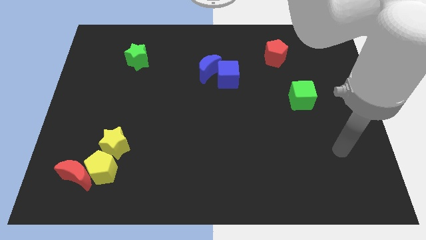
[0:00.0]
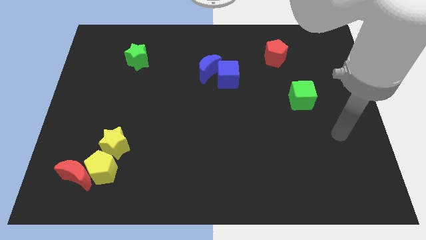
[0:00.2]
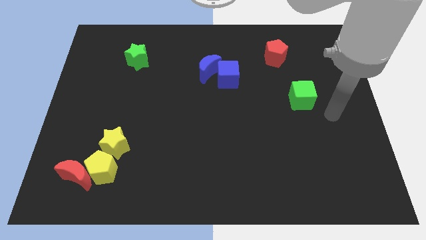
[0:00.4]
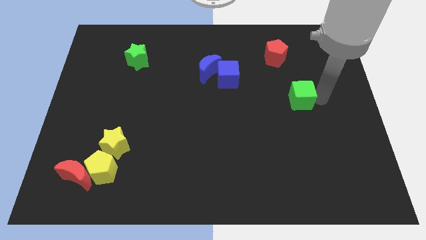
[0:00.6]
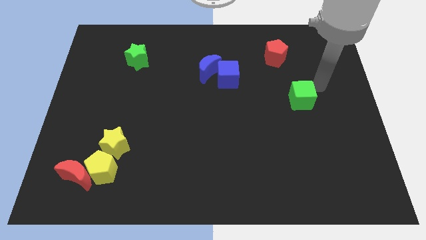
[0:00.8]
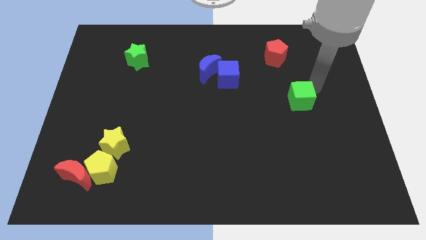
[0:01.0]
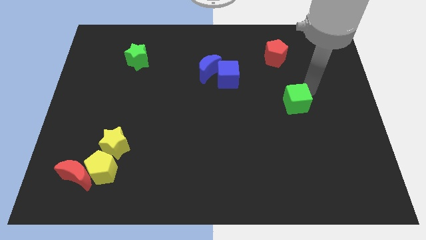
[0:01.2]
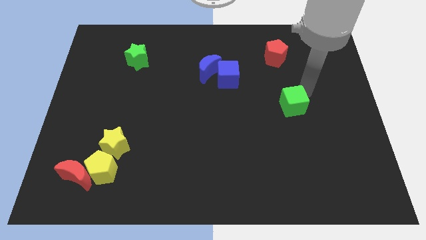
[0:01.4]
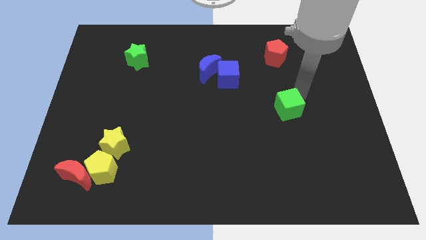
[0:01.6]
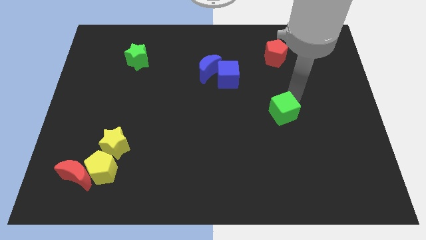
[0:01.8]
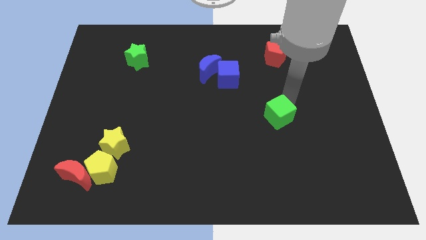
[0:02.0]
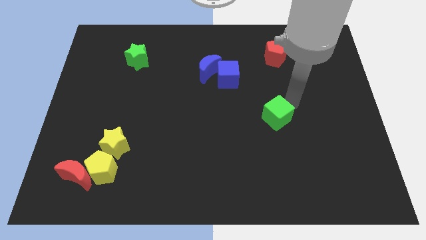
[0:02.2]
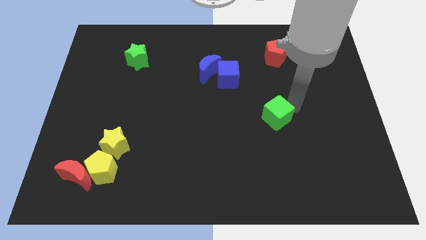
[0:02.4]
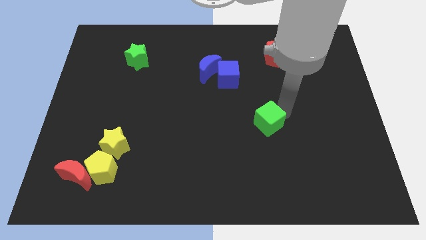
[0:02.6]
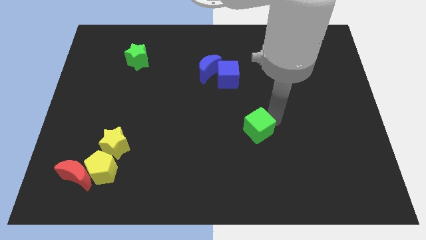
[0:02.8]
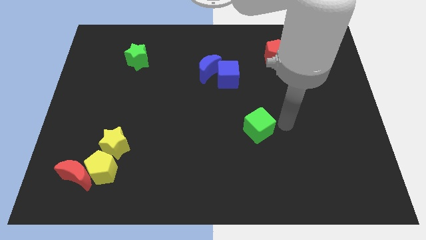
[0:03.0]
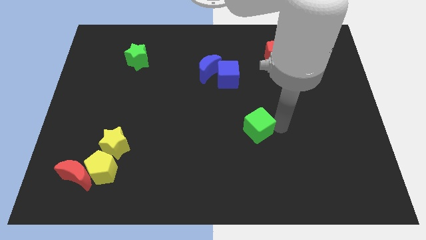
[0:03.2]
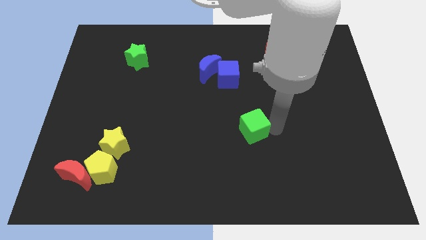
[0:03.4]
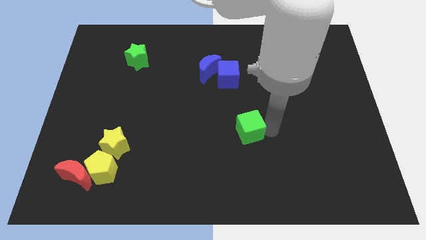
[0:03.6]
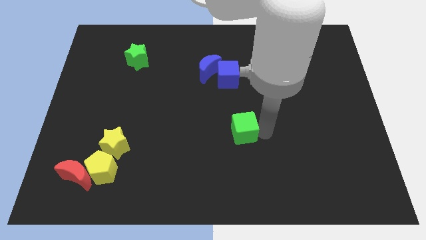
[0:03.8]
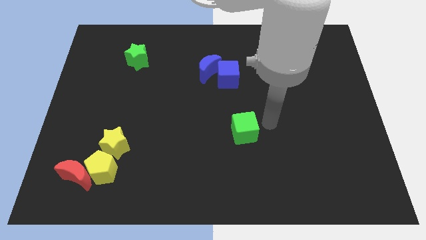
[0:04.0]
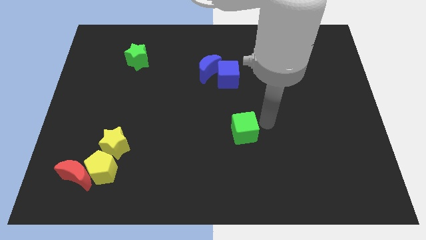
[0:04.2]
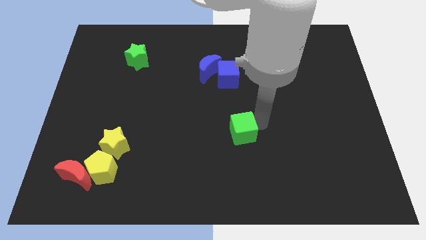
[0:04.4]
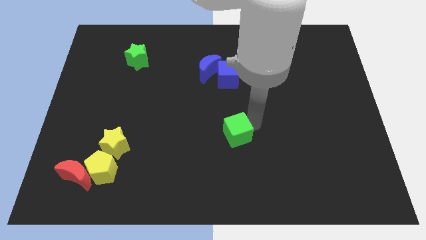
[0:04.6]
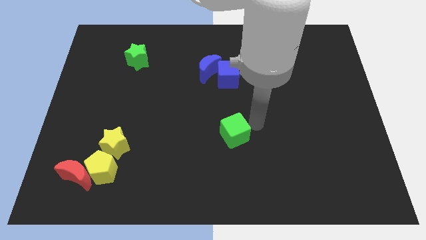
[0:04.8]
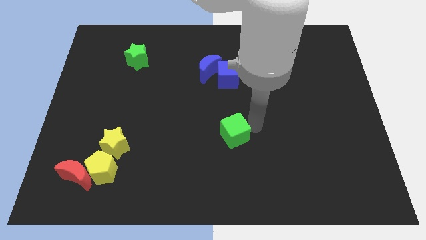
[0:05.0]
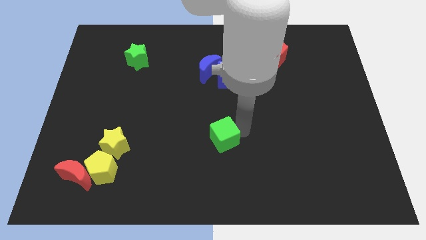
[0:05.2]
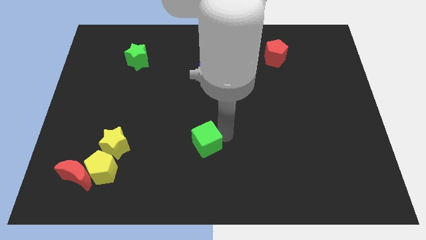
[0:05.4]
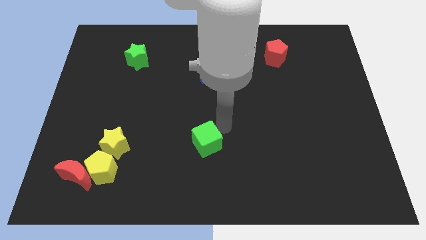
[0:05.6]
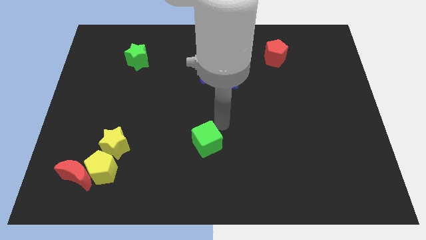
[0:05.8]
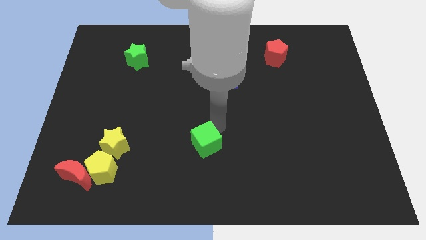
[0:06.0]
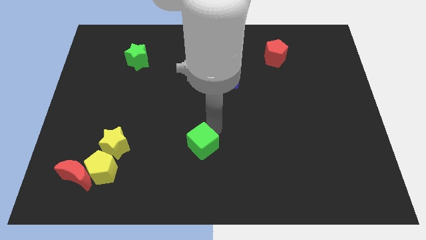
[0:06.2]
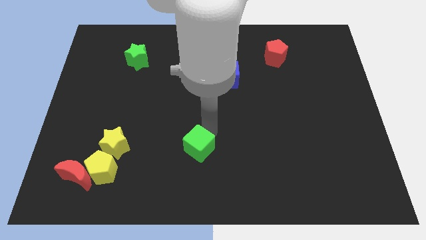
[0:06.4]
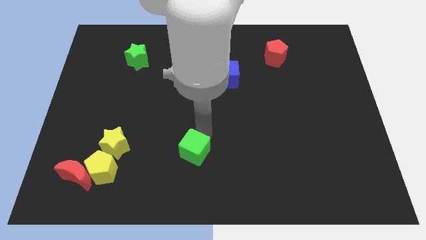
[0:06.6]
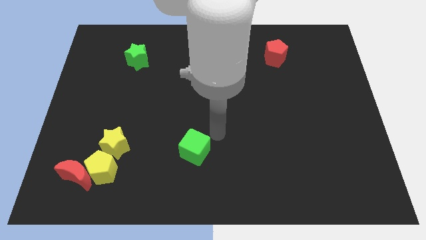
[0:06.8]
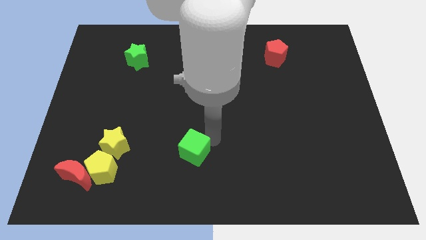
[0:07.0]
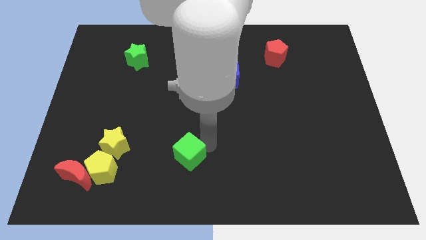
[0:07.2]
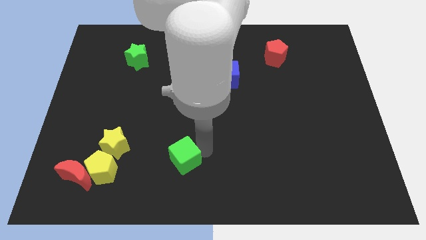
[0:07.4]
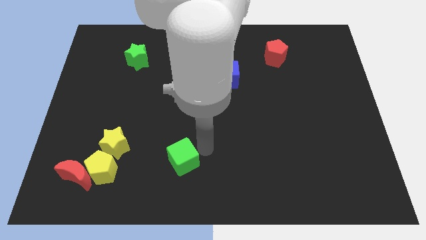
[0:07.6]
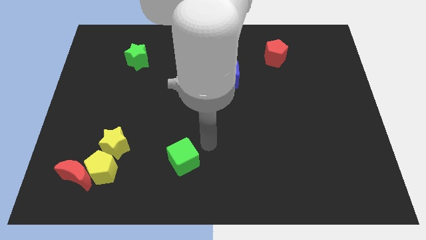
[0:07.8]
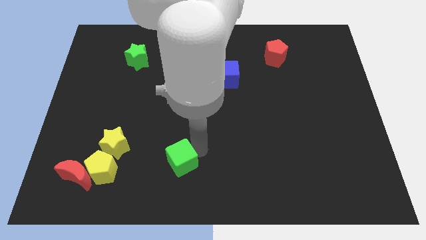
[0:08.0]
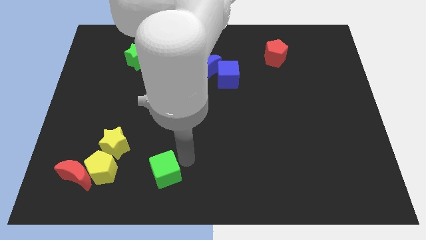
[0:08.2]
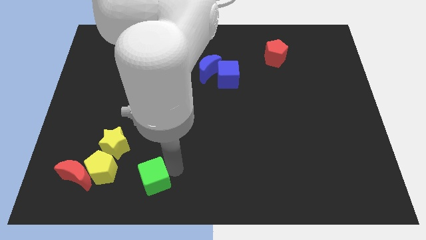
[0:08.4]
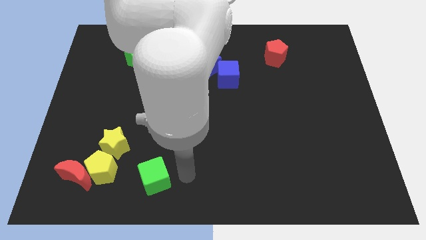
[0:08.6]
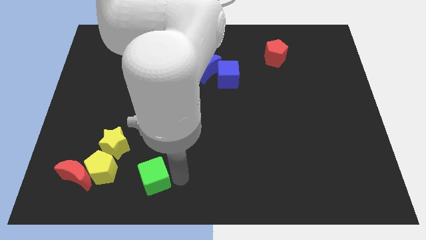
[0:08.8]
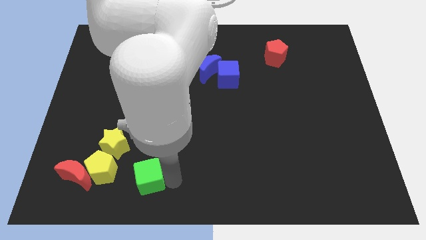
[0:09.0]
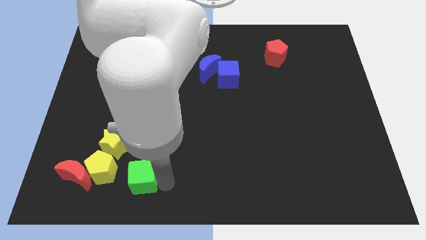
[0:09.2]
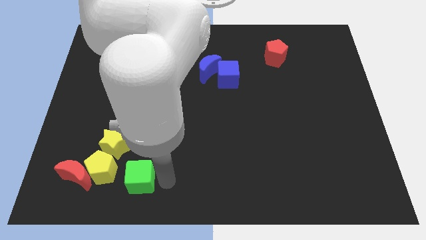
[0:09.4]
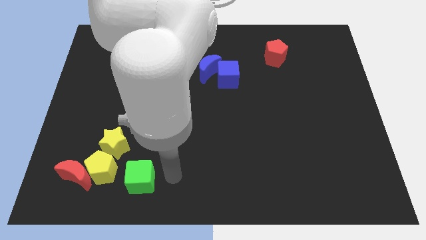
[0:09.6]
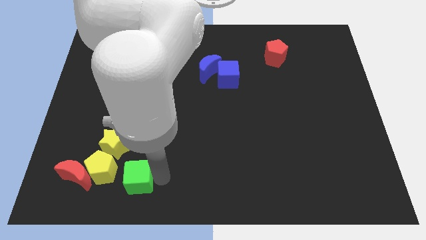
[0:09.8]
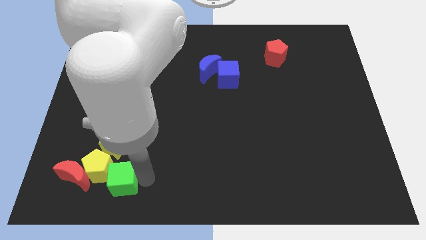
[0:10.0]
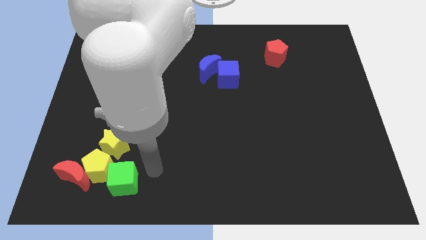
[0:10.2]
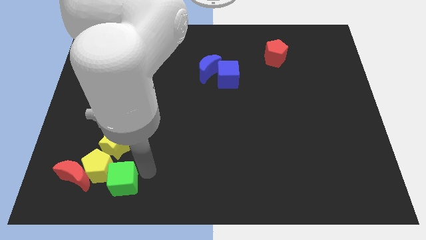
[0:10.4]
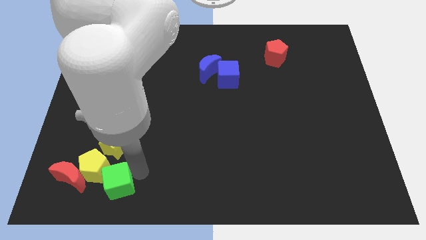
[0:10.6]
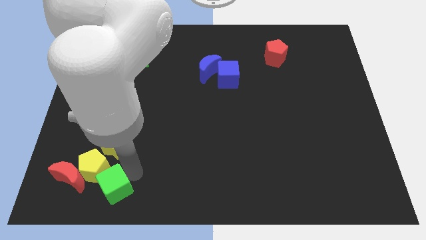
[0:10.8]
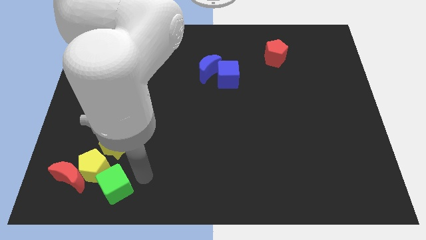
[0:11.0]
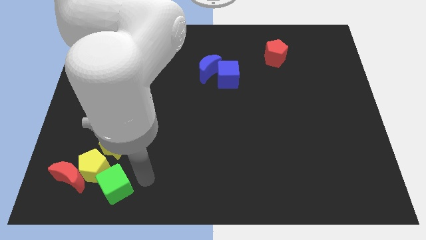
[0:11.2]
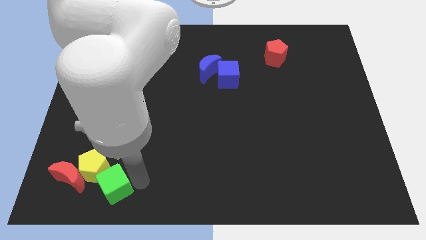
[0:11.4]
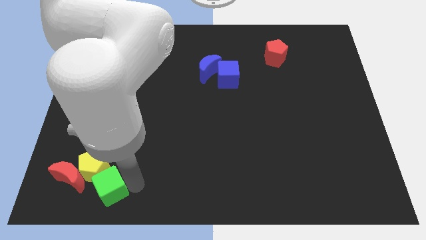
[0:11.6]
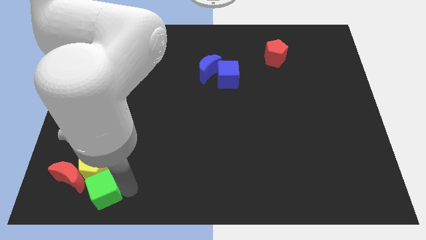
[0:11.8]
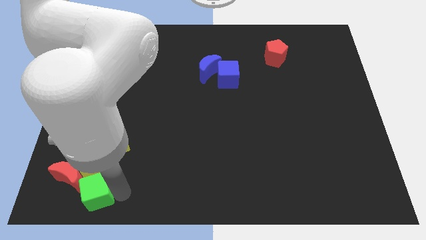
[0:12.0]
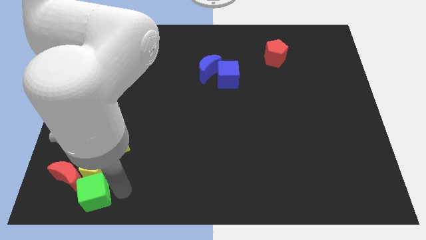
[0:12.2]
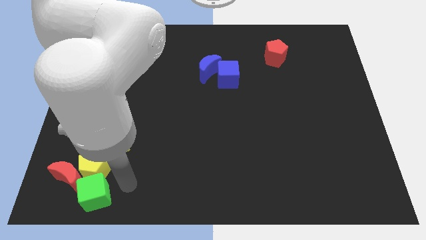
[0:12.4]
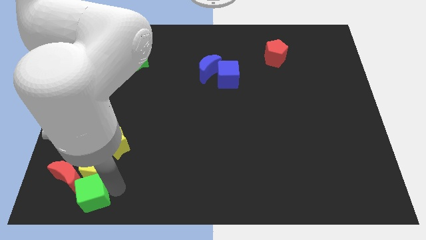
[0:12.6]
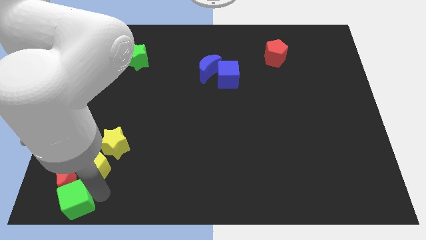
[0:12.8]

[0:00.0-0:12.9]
move the green cube to the bottom left corner

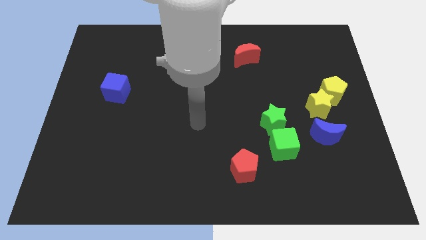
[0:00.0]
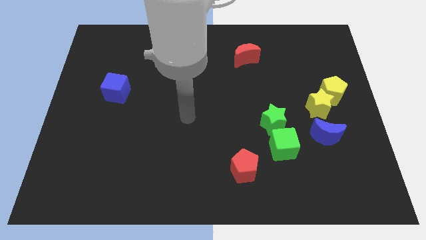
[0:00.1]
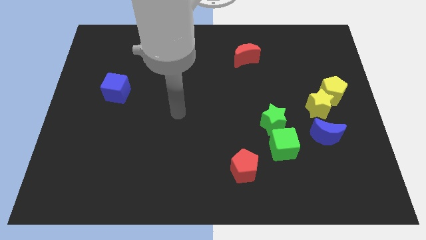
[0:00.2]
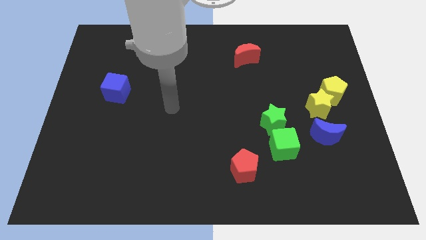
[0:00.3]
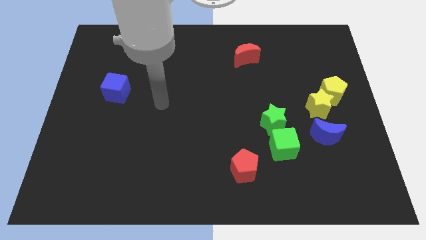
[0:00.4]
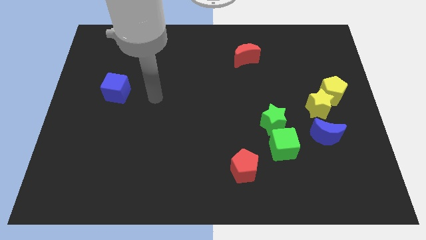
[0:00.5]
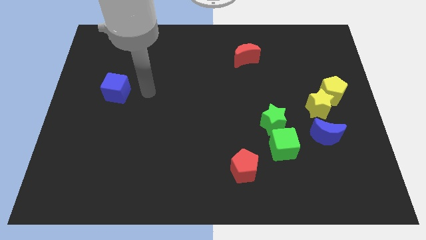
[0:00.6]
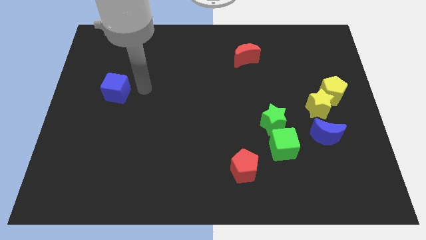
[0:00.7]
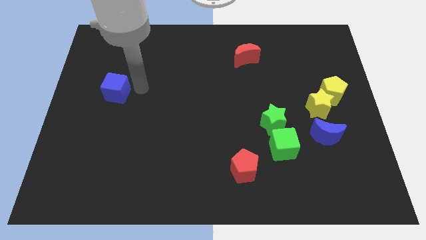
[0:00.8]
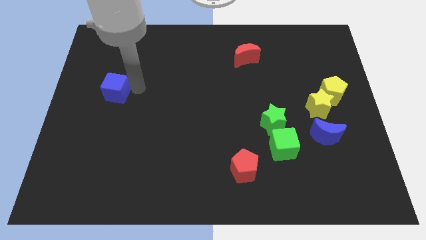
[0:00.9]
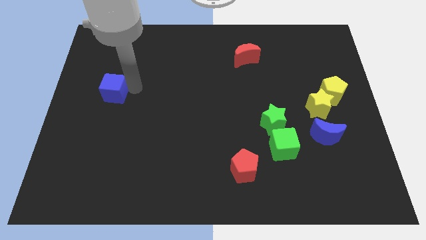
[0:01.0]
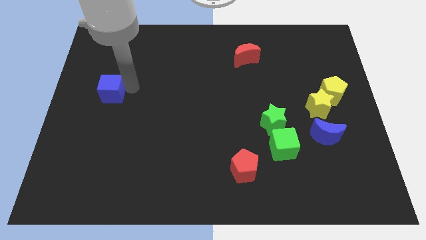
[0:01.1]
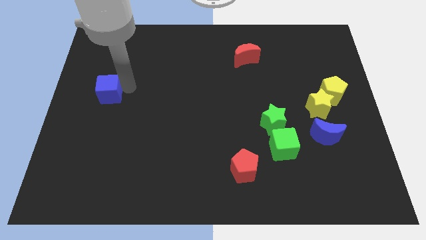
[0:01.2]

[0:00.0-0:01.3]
slide the blue cube to the left side
